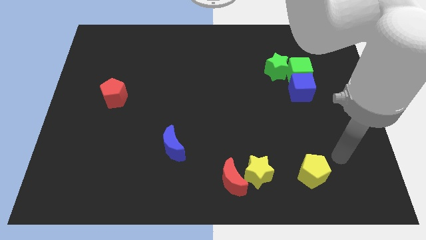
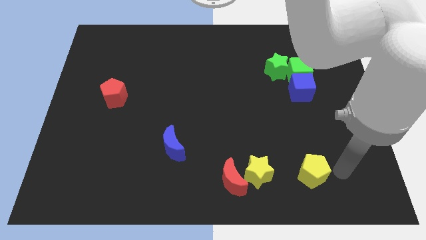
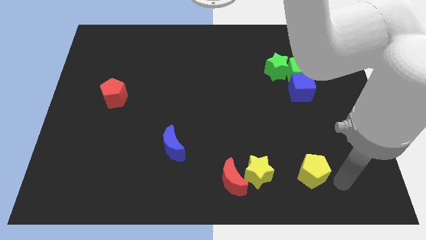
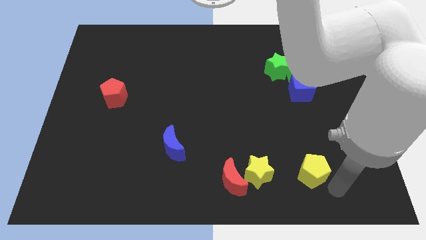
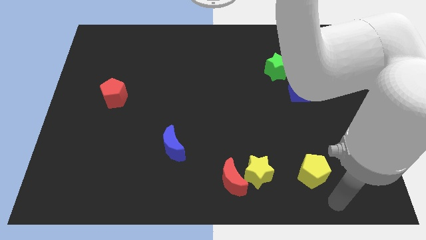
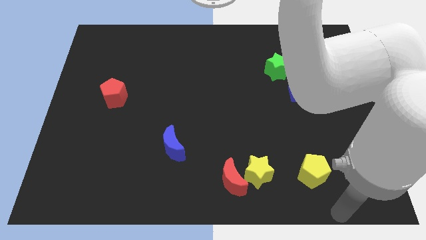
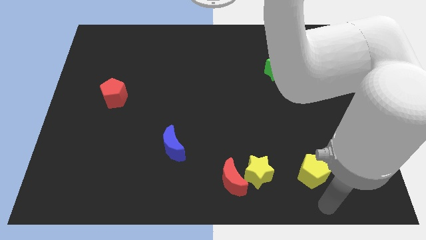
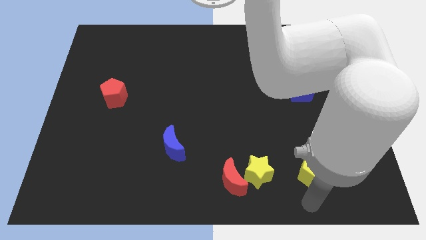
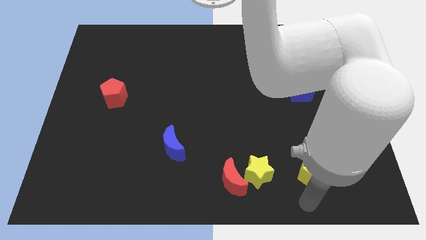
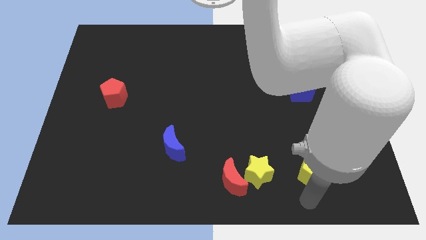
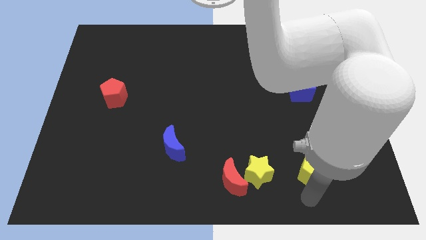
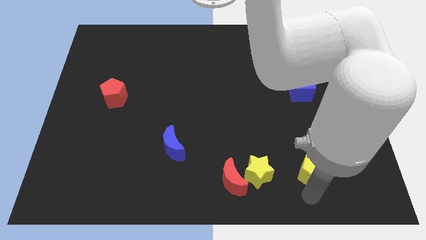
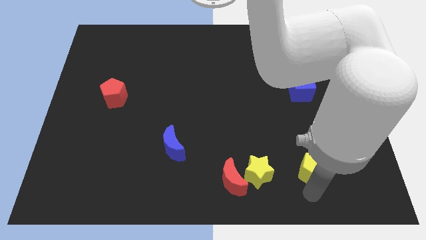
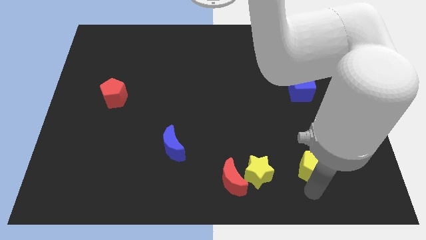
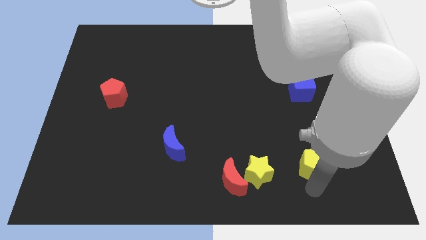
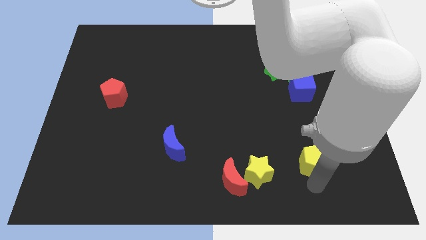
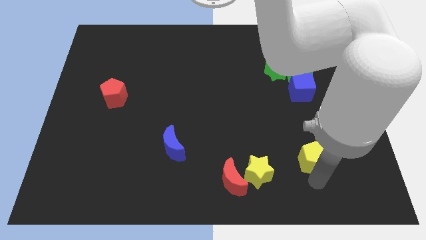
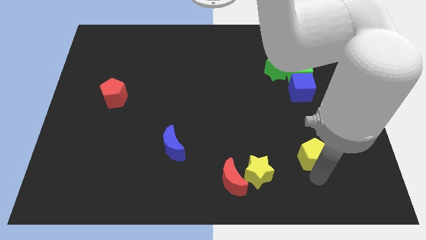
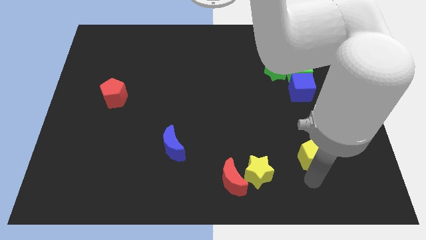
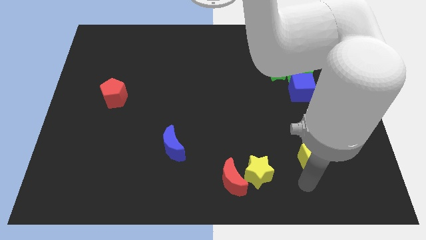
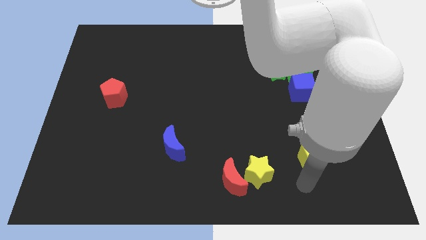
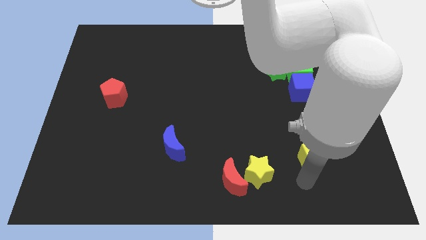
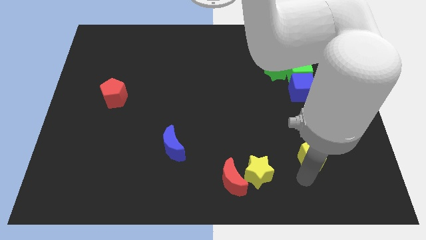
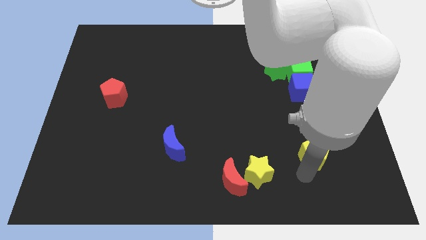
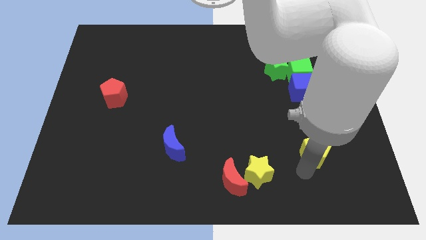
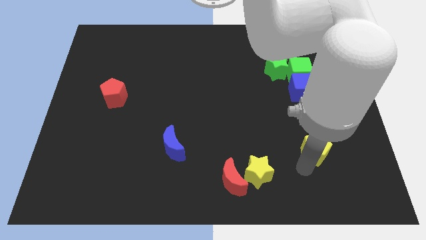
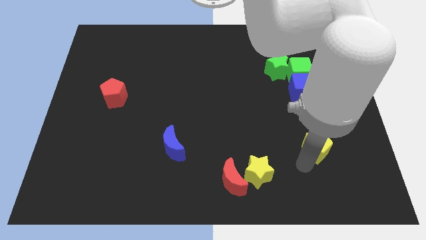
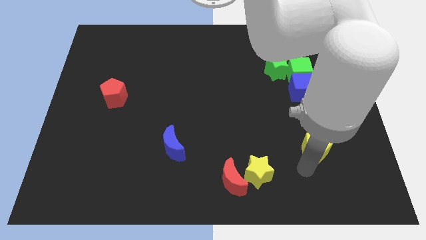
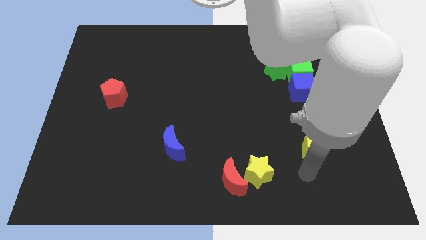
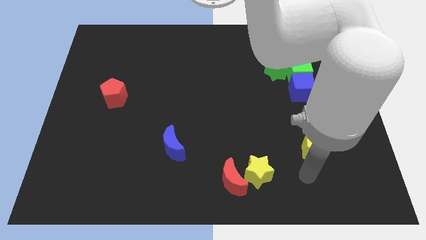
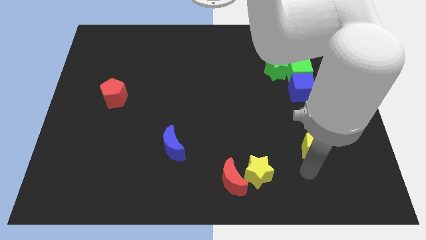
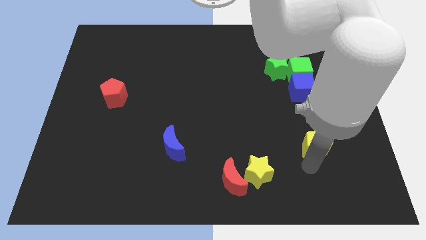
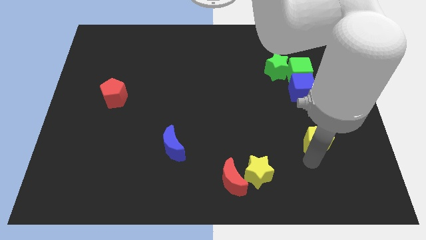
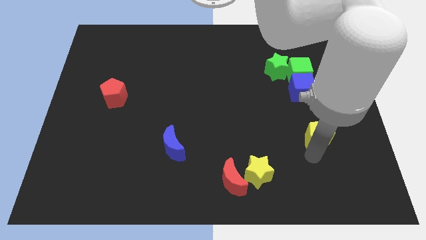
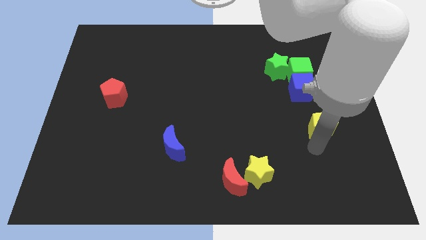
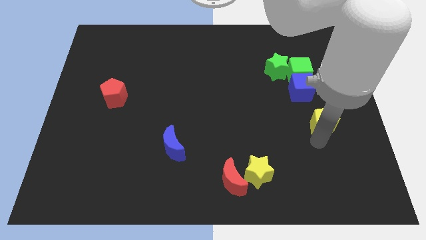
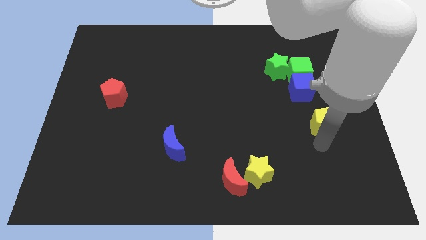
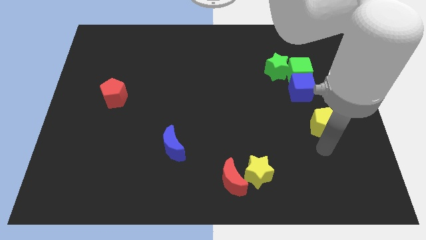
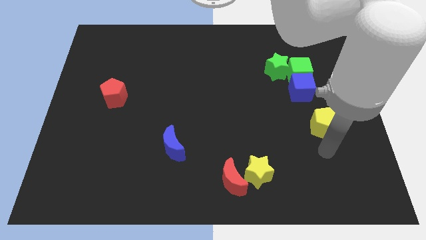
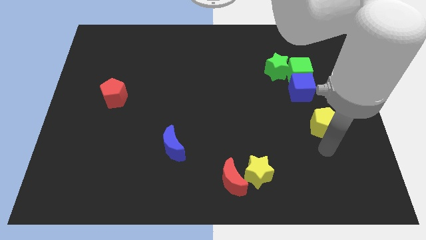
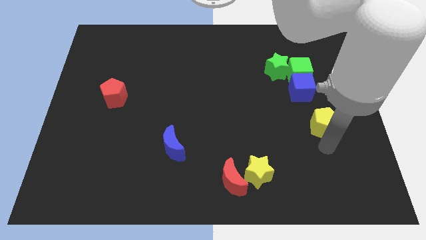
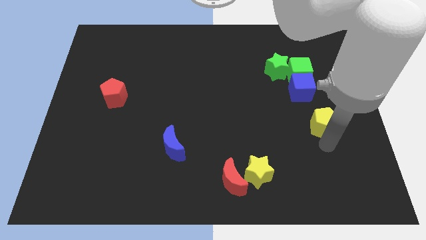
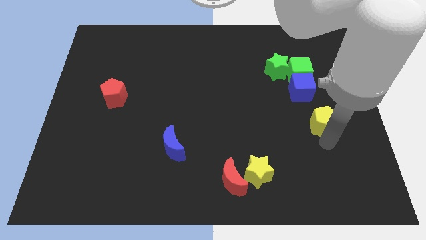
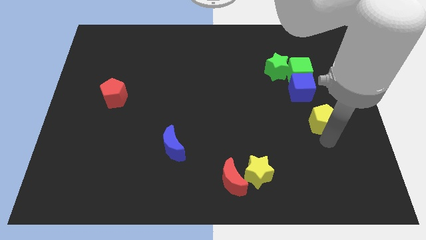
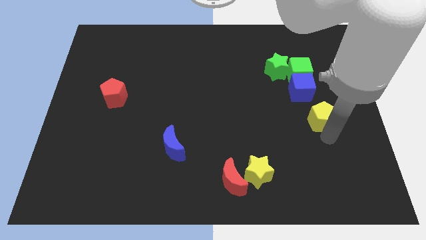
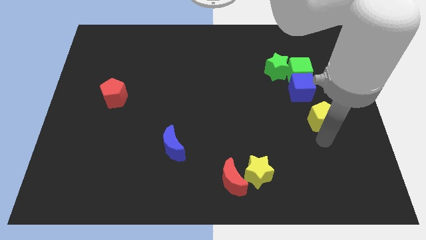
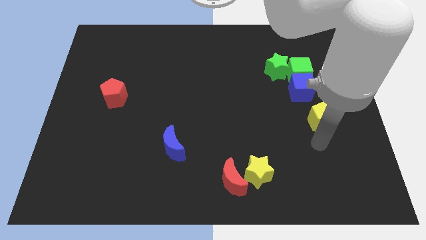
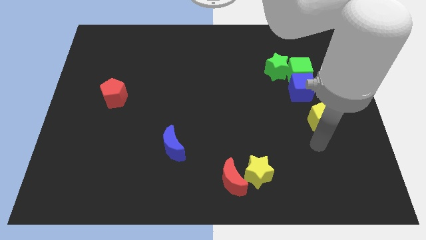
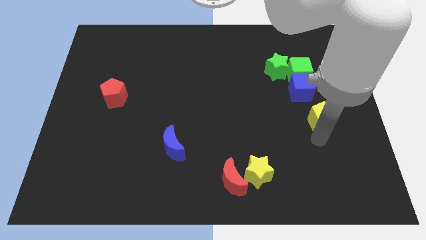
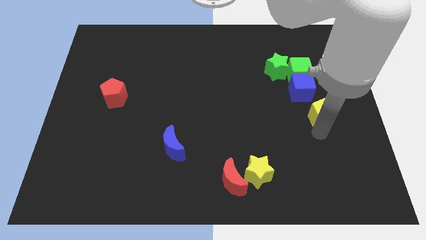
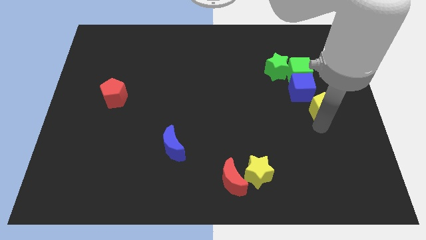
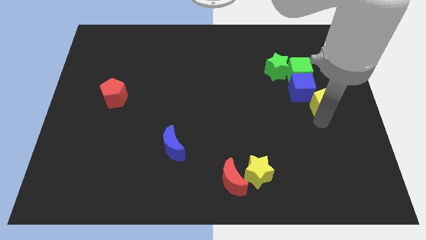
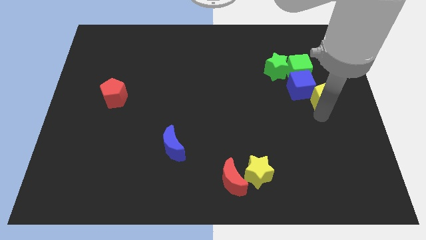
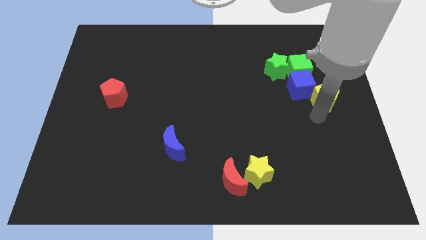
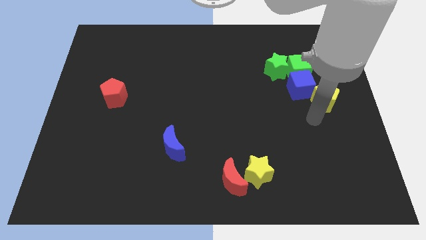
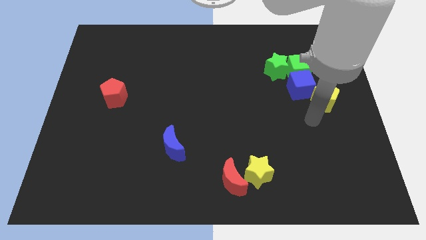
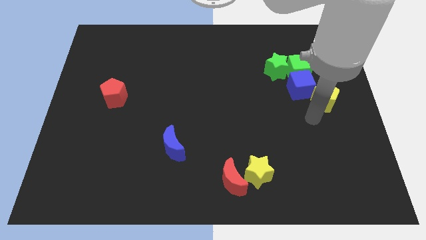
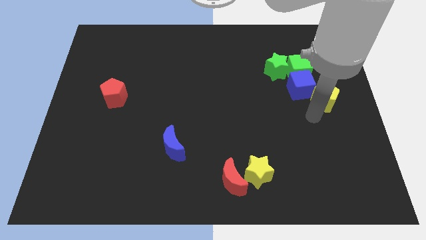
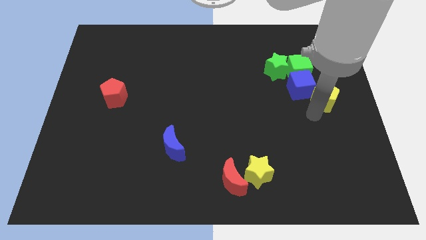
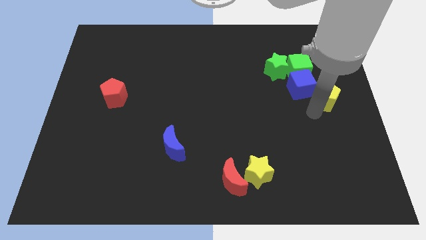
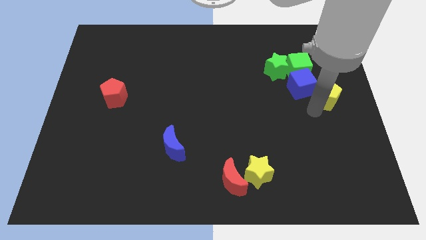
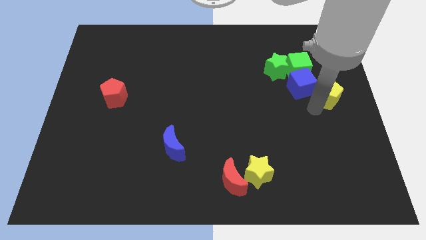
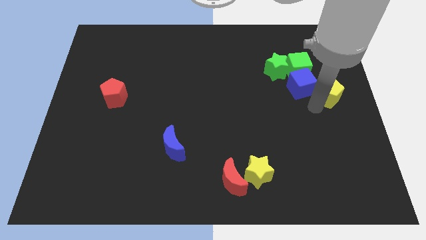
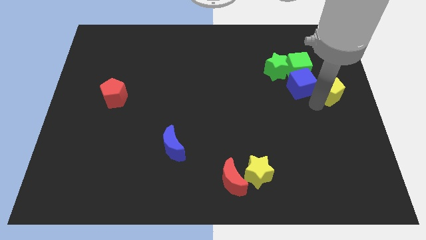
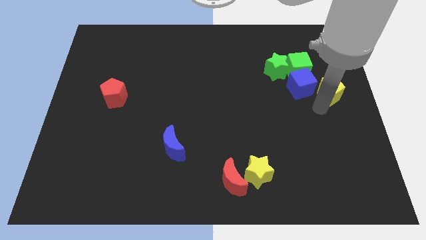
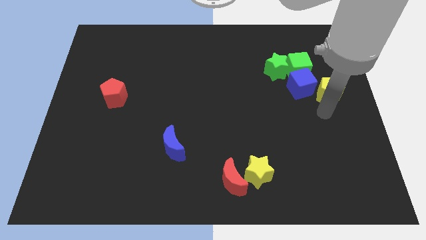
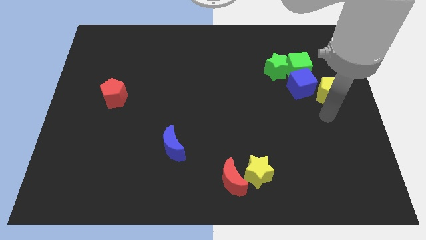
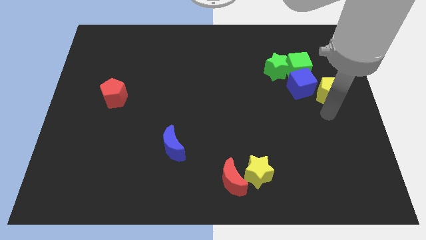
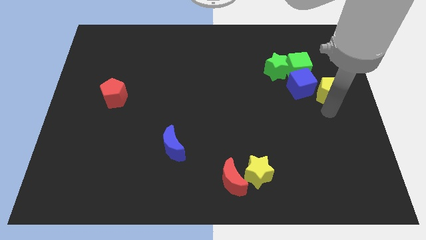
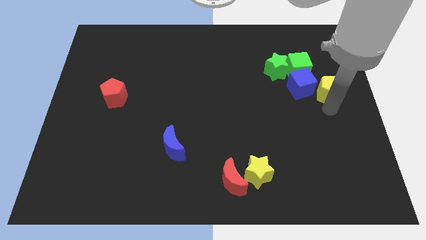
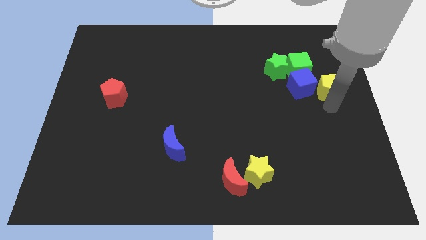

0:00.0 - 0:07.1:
slide the yellow pentagon upwards

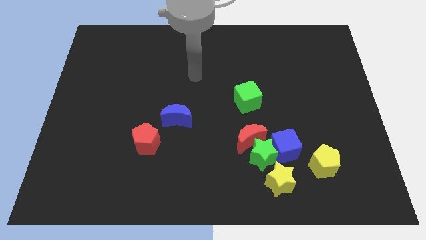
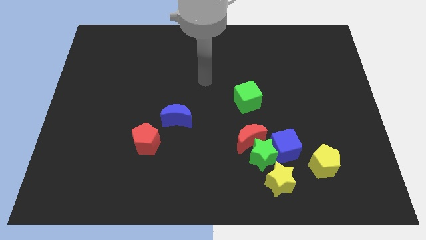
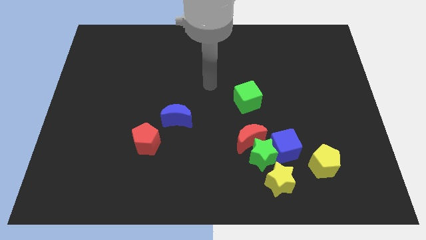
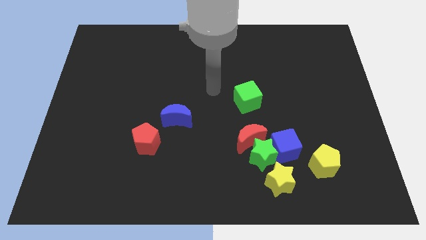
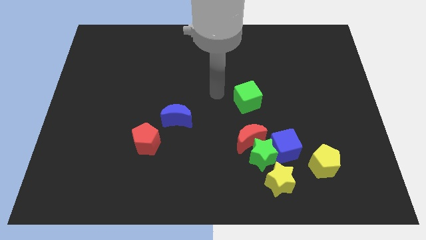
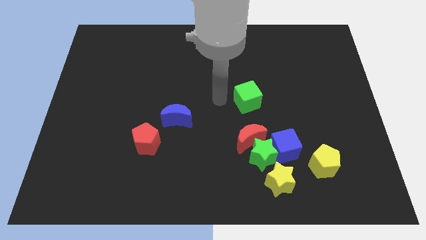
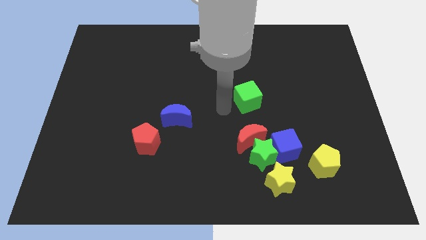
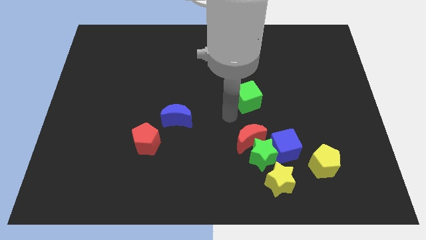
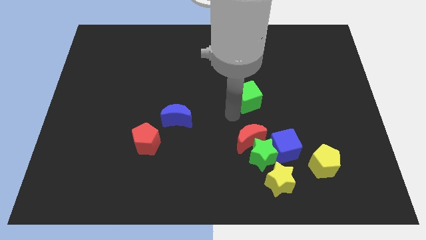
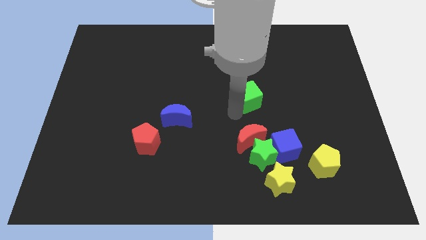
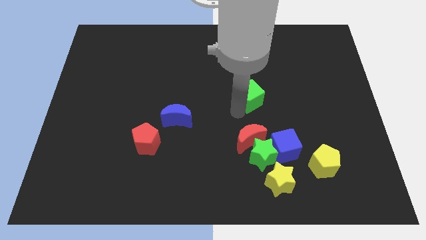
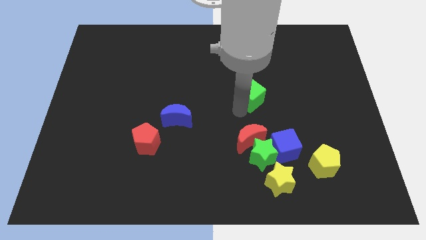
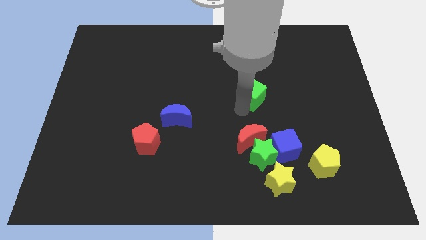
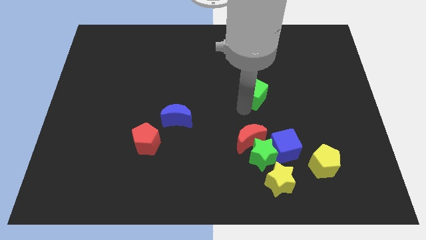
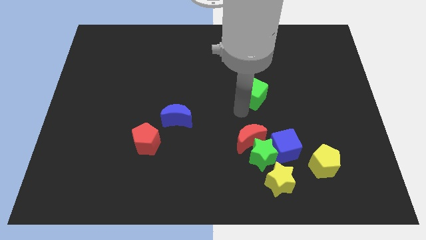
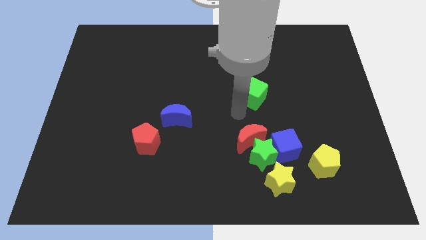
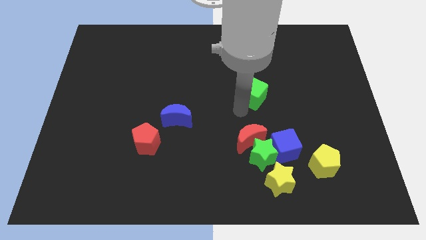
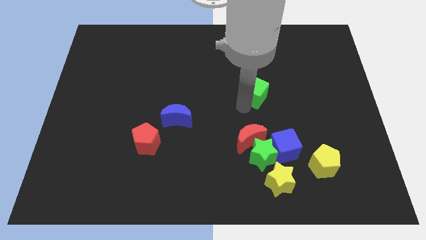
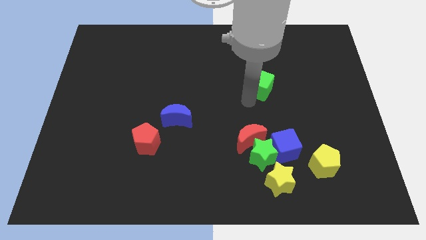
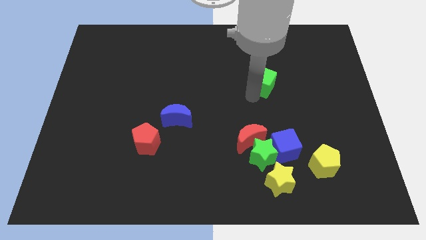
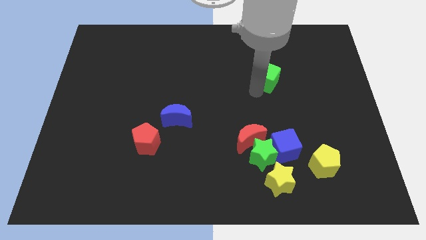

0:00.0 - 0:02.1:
slightly slide the green cube upwards and to the right
